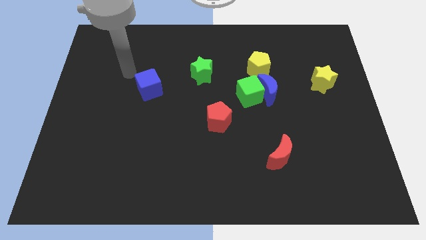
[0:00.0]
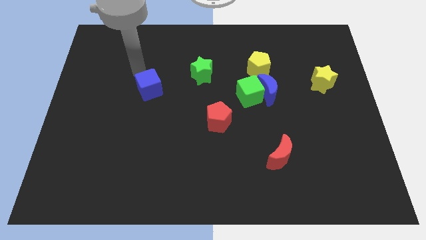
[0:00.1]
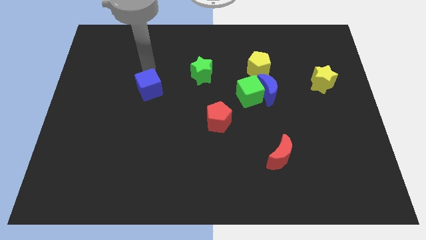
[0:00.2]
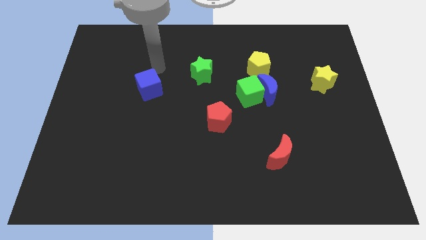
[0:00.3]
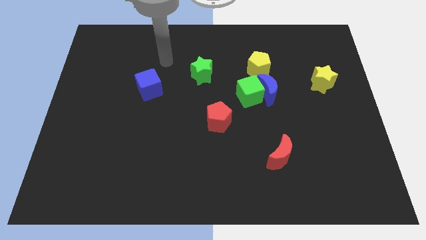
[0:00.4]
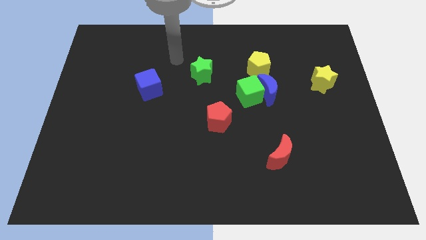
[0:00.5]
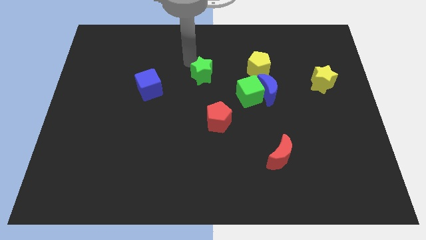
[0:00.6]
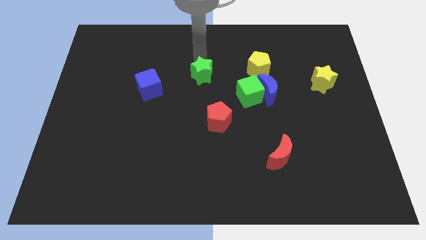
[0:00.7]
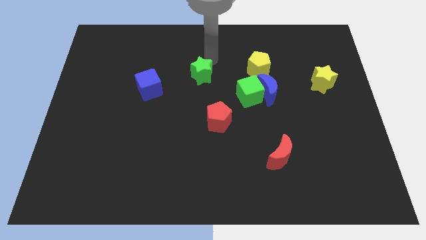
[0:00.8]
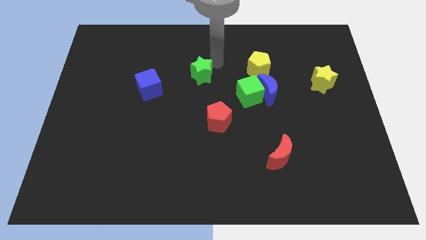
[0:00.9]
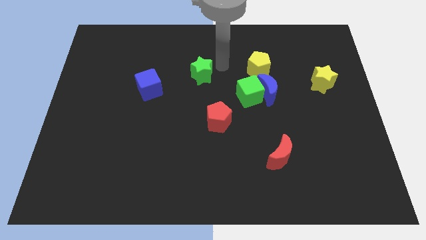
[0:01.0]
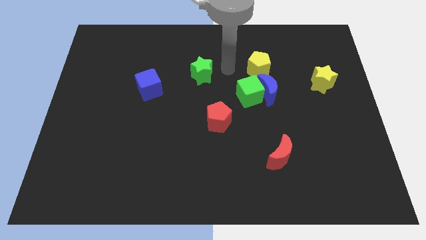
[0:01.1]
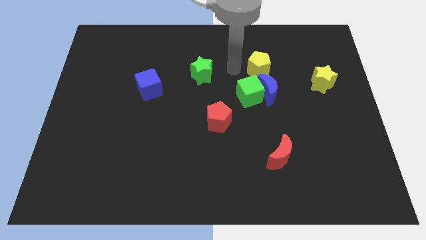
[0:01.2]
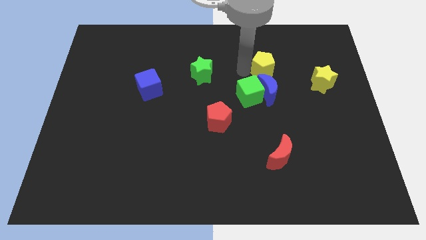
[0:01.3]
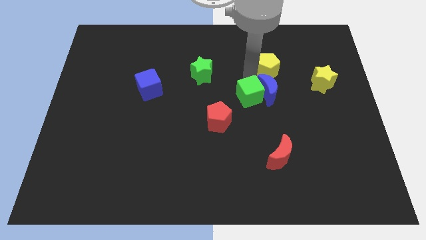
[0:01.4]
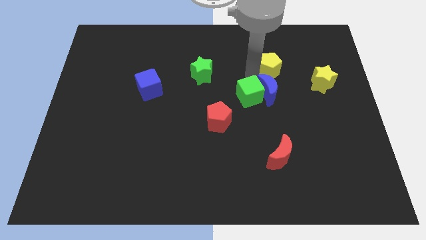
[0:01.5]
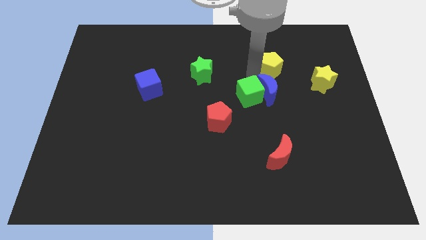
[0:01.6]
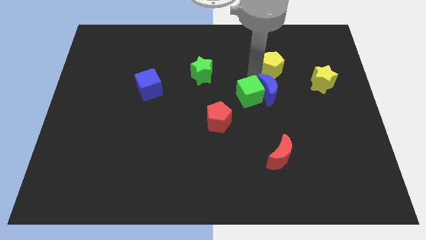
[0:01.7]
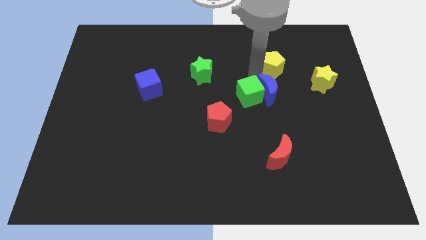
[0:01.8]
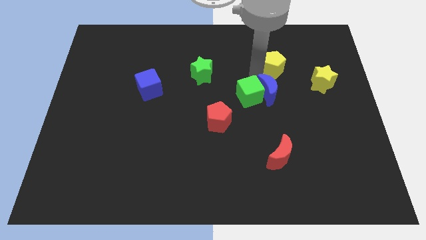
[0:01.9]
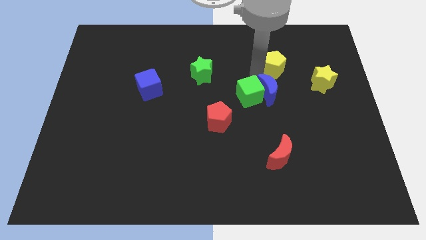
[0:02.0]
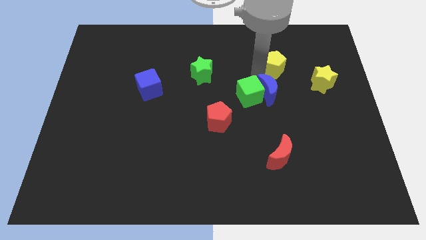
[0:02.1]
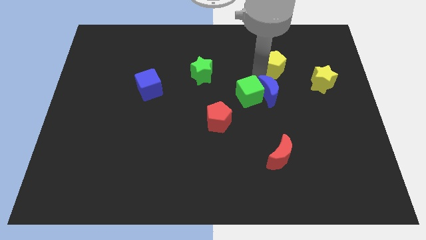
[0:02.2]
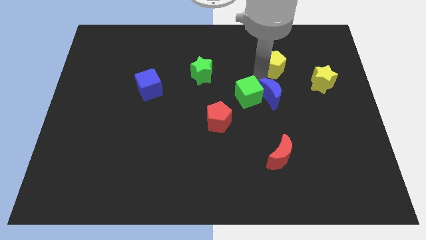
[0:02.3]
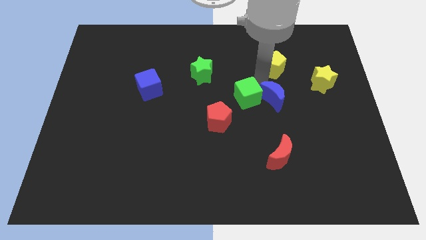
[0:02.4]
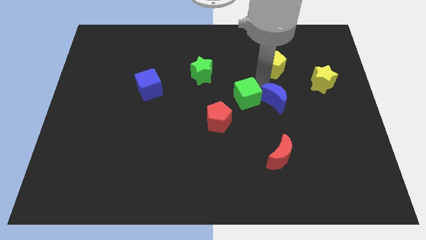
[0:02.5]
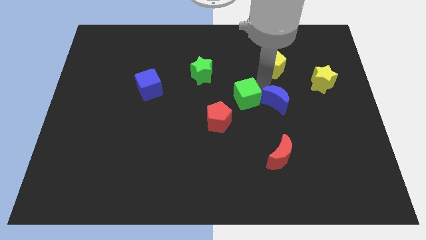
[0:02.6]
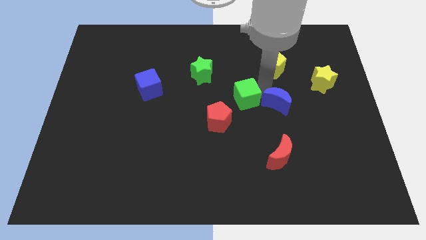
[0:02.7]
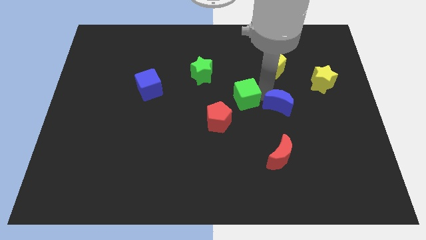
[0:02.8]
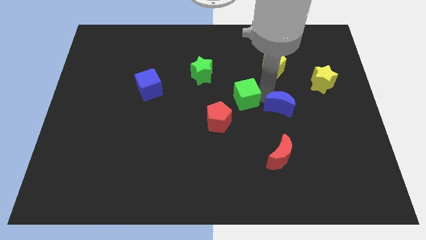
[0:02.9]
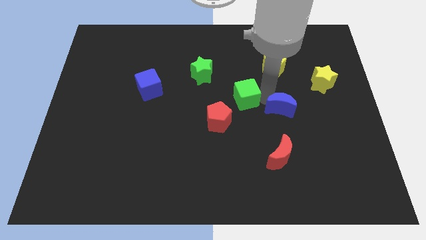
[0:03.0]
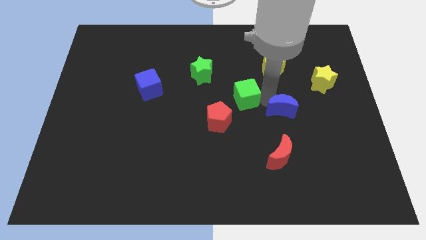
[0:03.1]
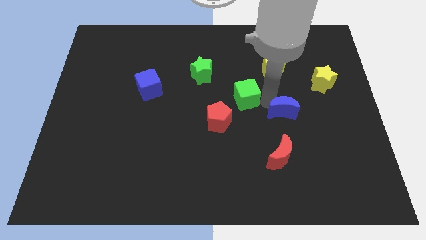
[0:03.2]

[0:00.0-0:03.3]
pull the blue moon apart from the green cube and yellow pentagon

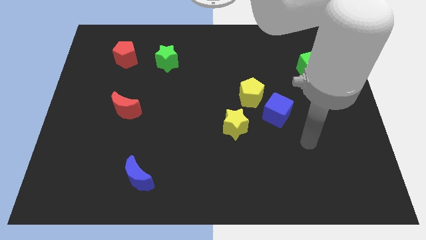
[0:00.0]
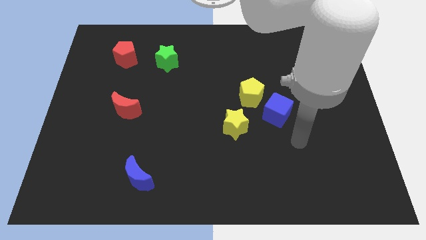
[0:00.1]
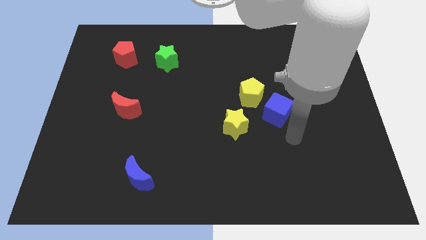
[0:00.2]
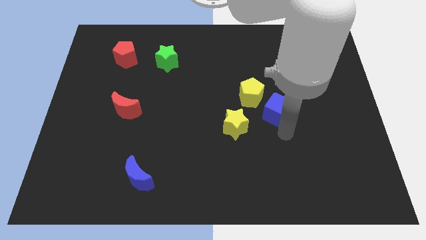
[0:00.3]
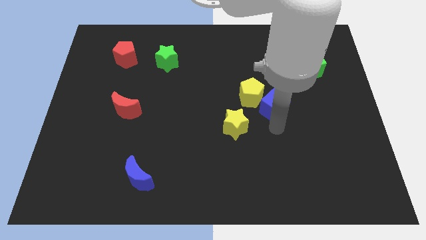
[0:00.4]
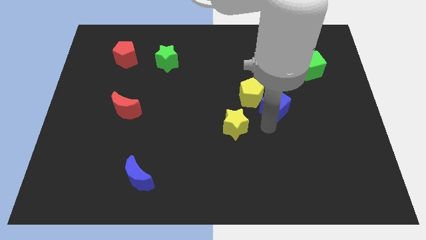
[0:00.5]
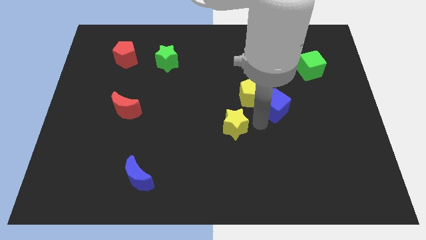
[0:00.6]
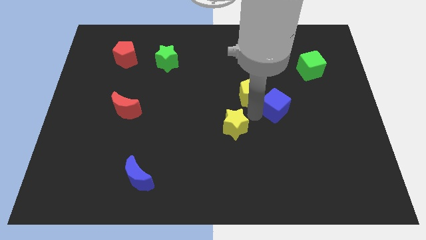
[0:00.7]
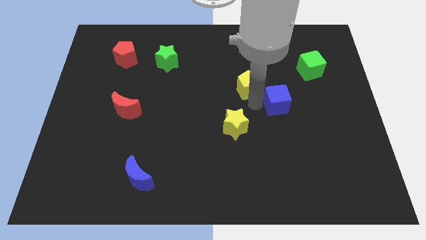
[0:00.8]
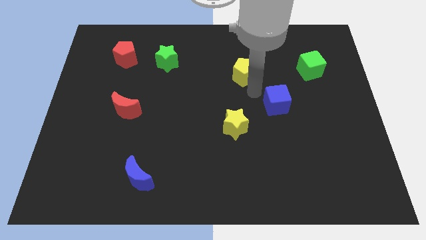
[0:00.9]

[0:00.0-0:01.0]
move the blue cube away from the yellow pentagon

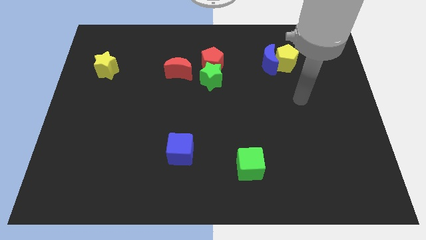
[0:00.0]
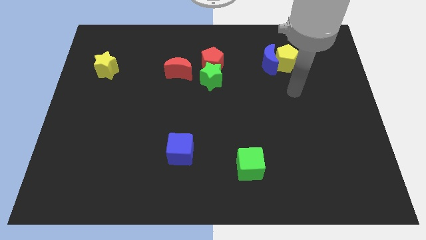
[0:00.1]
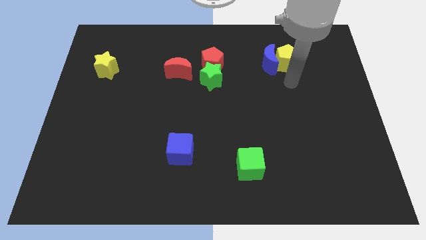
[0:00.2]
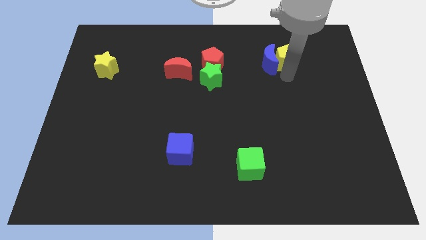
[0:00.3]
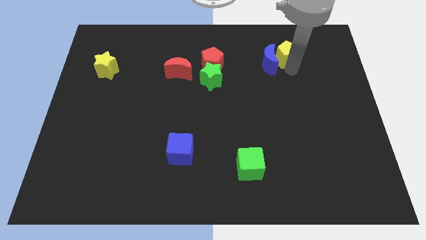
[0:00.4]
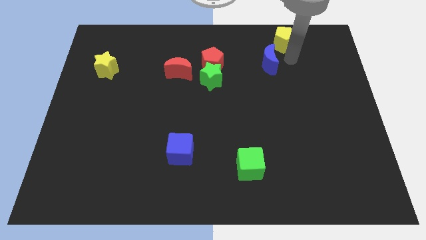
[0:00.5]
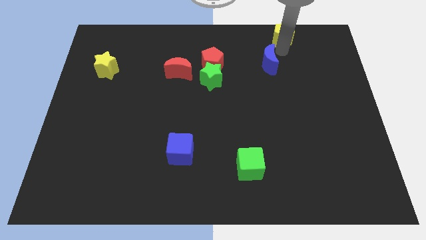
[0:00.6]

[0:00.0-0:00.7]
pull the blue moon apart from the yellow pentagon

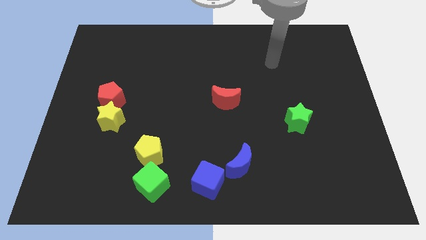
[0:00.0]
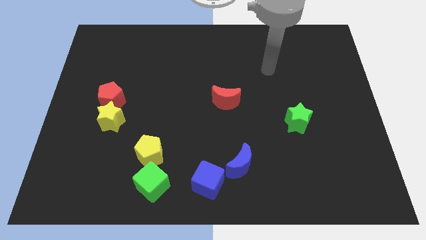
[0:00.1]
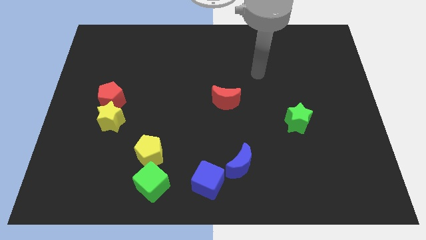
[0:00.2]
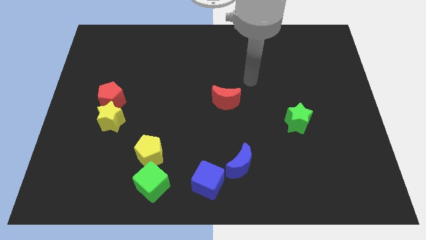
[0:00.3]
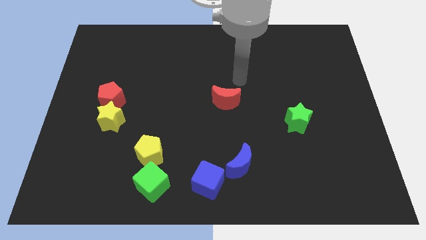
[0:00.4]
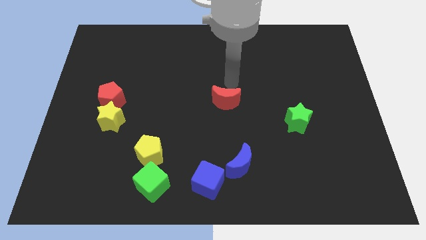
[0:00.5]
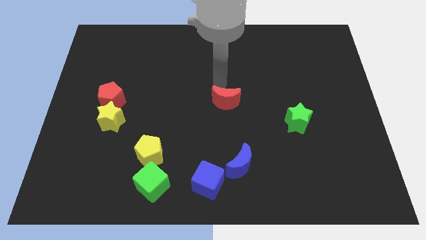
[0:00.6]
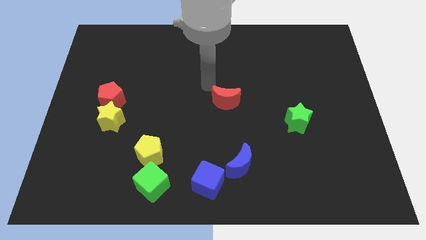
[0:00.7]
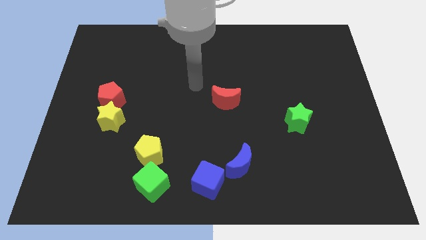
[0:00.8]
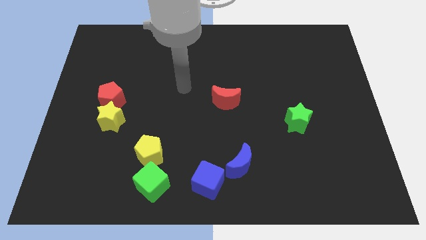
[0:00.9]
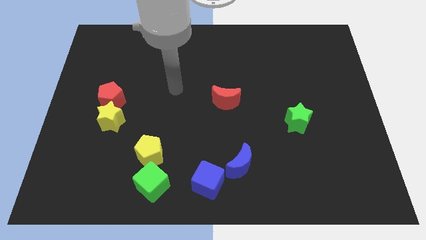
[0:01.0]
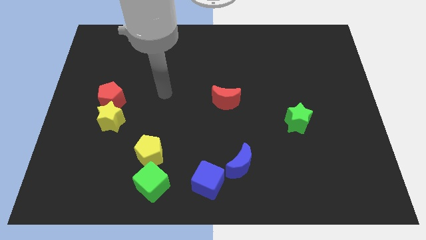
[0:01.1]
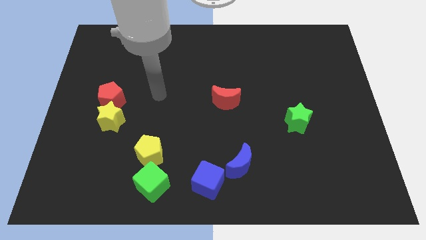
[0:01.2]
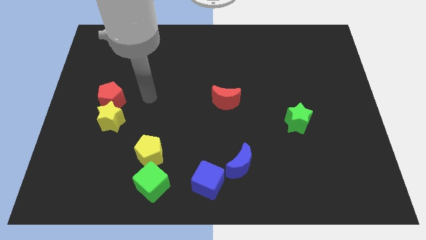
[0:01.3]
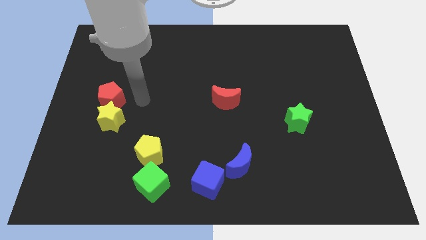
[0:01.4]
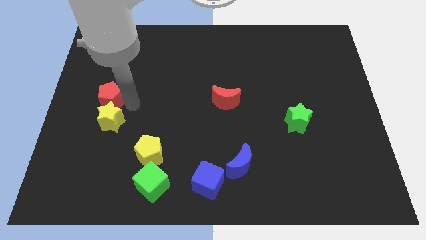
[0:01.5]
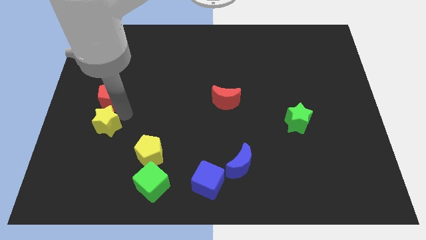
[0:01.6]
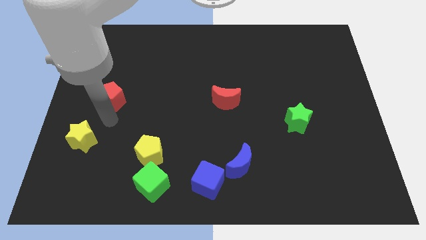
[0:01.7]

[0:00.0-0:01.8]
pull the red pentagon apart from the yellow star

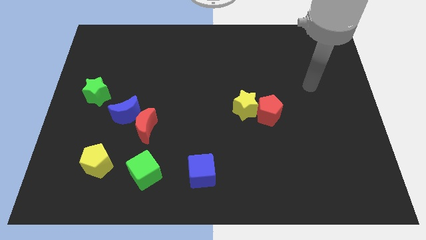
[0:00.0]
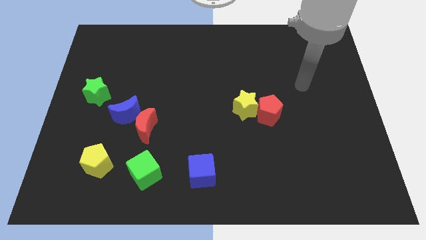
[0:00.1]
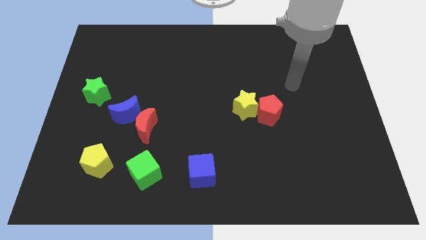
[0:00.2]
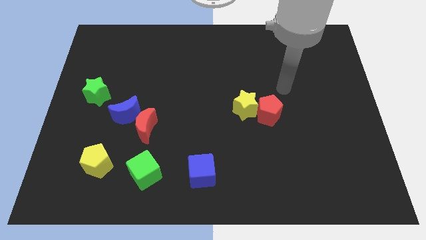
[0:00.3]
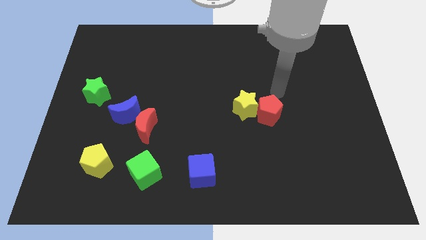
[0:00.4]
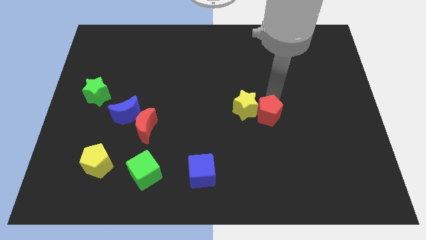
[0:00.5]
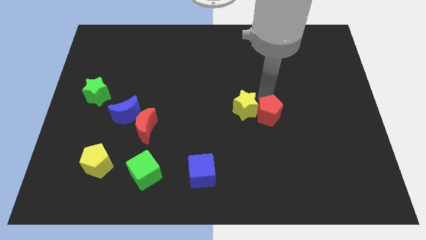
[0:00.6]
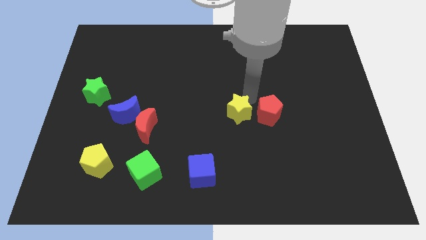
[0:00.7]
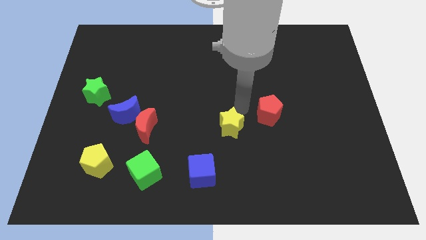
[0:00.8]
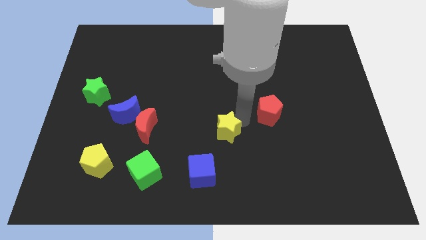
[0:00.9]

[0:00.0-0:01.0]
separate the red pentagon from the yellow star

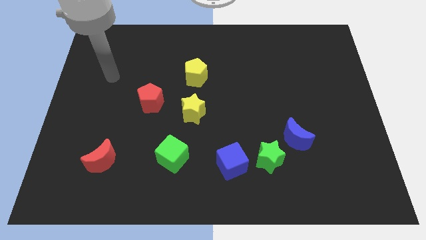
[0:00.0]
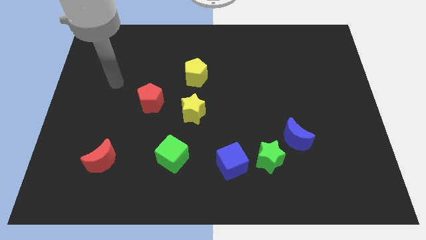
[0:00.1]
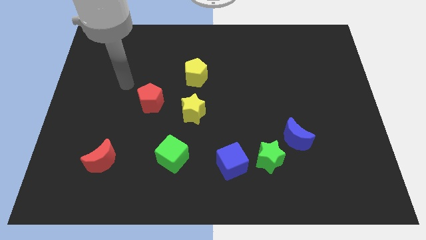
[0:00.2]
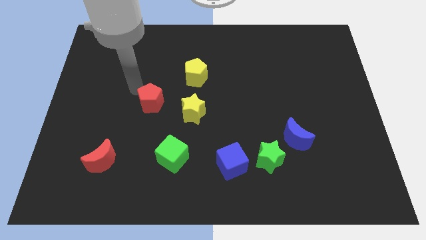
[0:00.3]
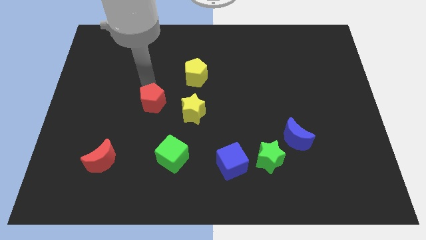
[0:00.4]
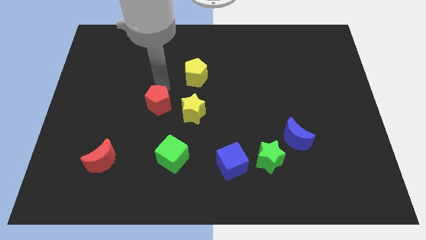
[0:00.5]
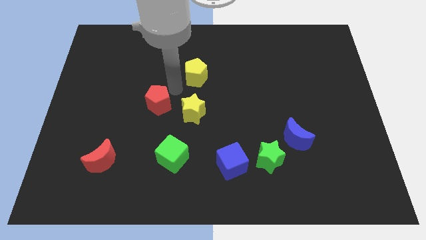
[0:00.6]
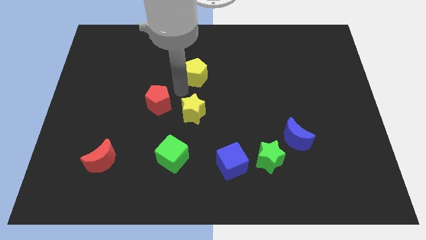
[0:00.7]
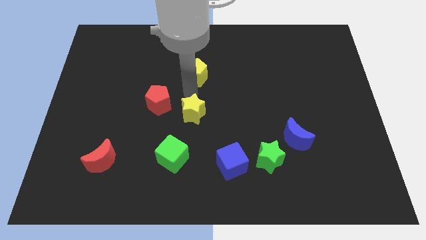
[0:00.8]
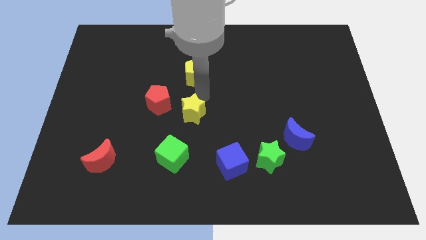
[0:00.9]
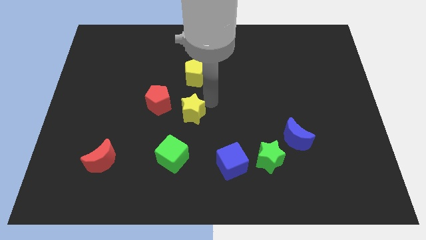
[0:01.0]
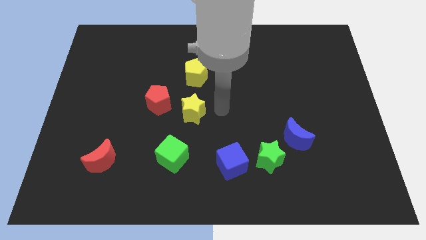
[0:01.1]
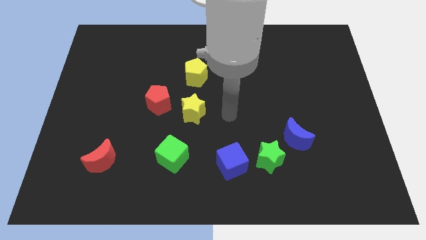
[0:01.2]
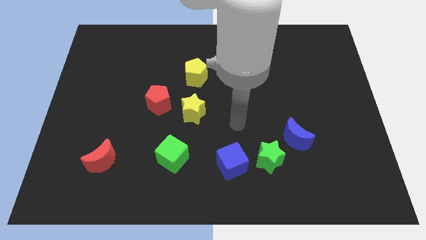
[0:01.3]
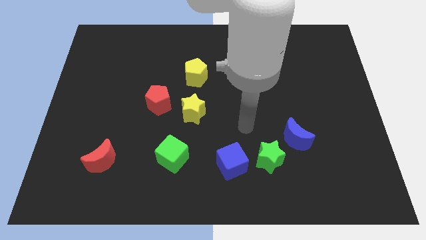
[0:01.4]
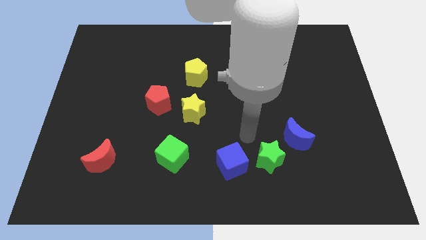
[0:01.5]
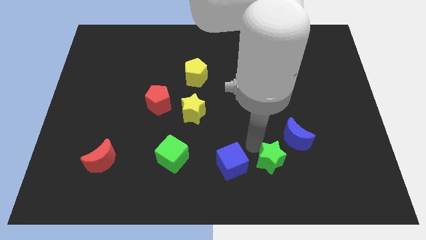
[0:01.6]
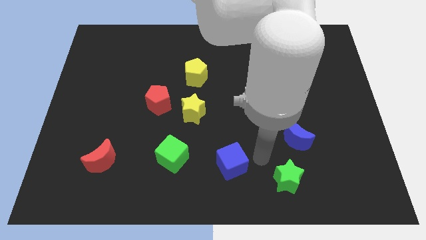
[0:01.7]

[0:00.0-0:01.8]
pull the blue cube apart from the green star
